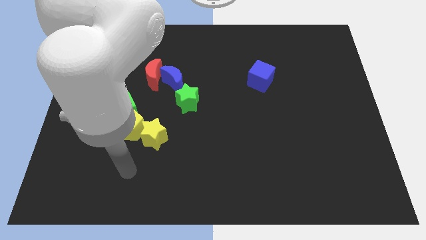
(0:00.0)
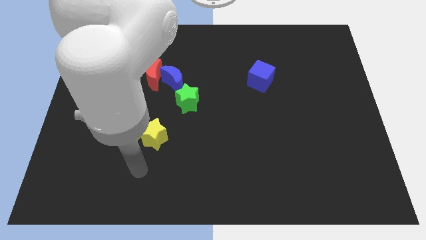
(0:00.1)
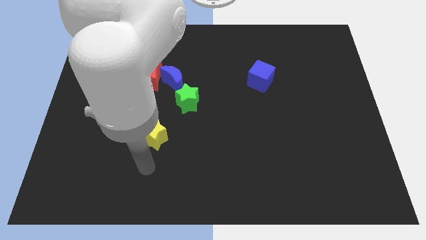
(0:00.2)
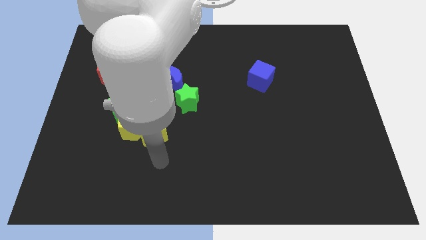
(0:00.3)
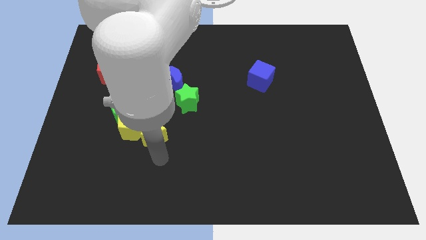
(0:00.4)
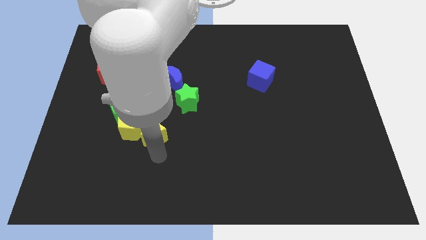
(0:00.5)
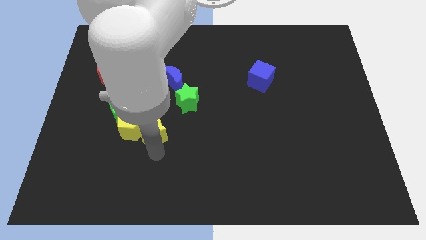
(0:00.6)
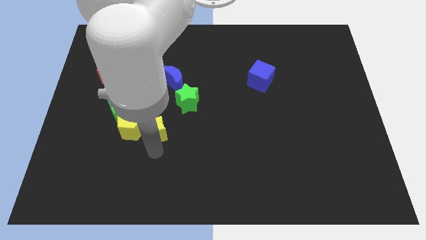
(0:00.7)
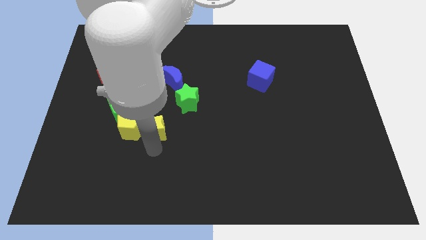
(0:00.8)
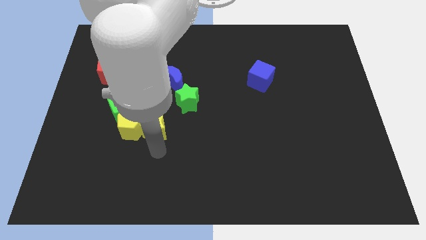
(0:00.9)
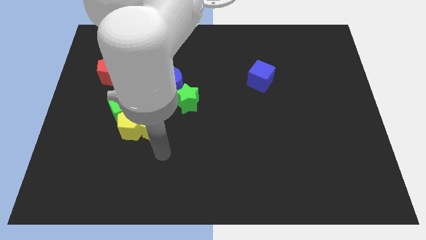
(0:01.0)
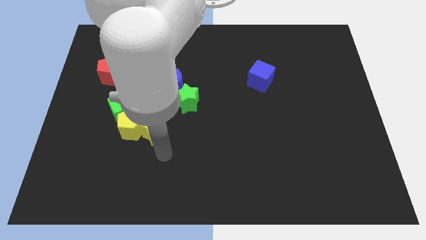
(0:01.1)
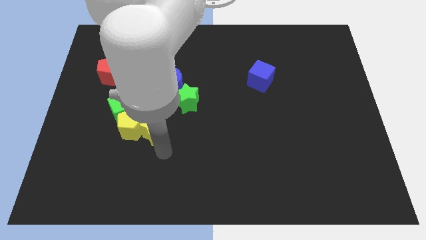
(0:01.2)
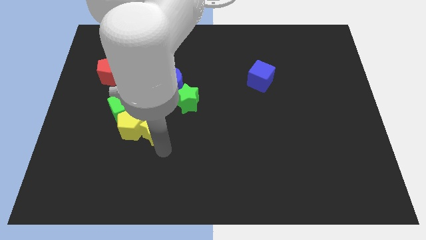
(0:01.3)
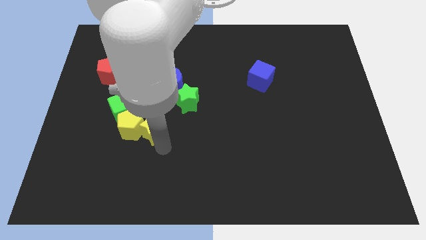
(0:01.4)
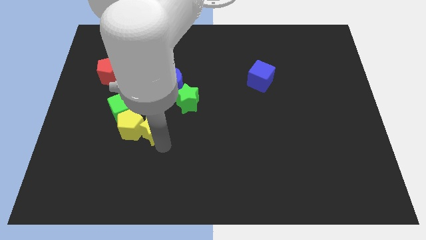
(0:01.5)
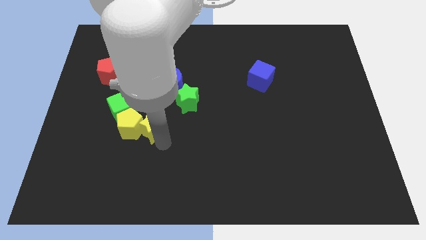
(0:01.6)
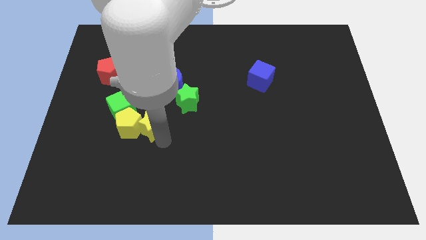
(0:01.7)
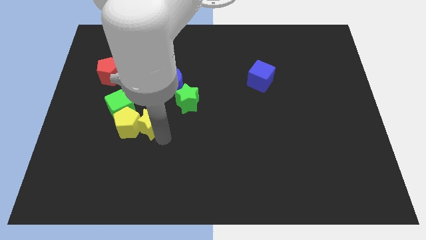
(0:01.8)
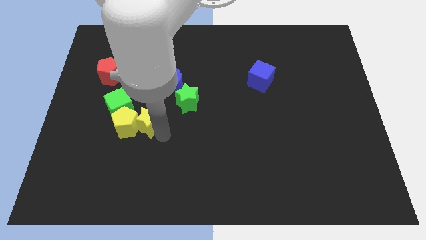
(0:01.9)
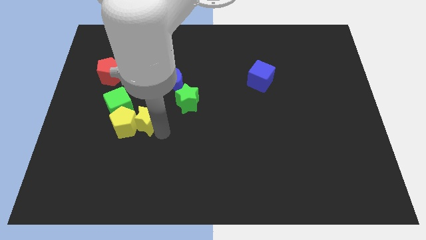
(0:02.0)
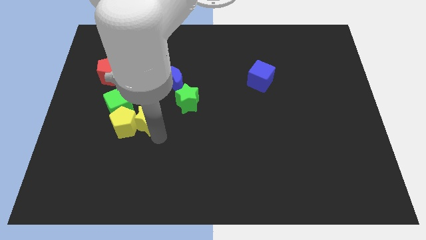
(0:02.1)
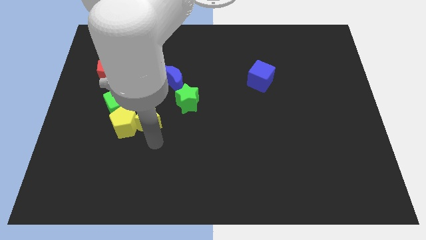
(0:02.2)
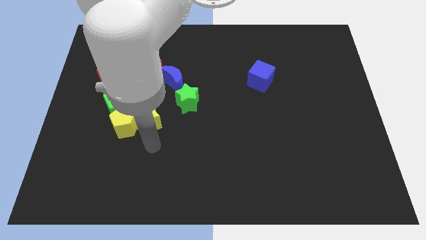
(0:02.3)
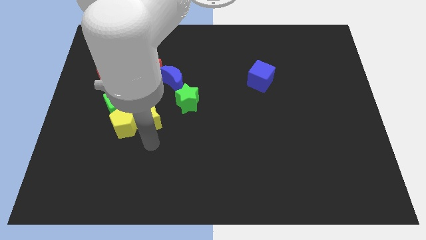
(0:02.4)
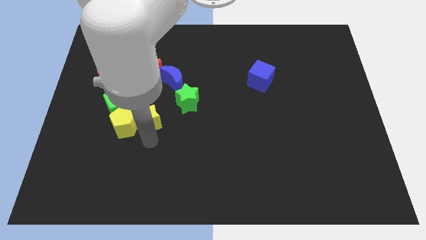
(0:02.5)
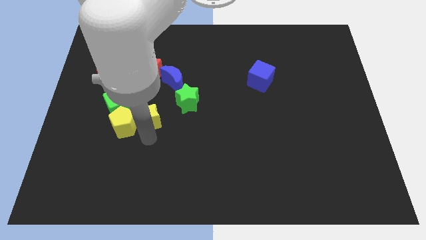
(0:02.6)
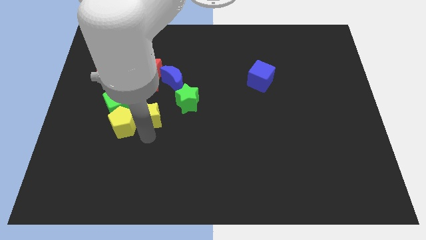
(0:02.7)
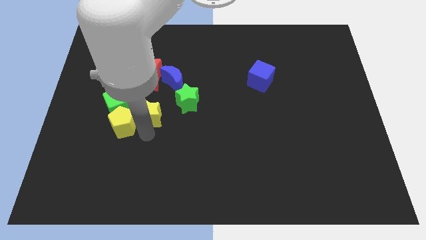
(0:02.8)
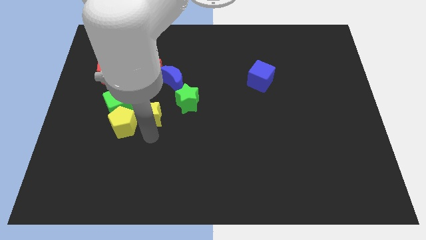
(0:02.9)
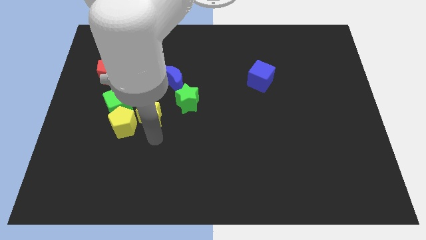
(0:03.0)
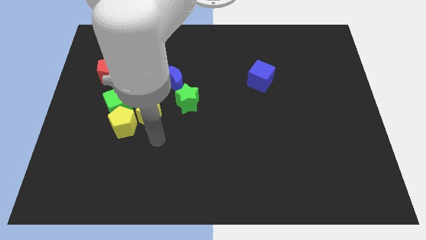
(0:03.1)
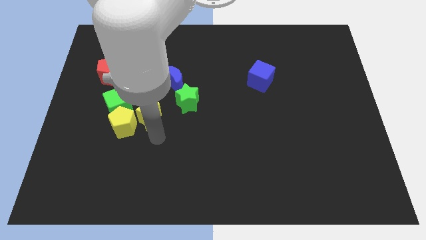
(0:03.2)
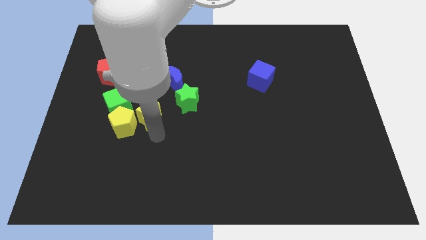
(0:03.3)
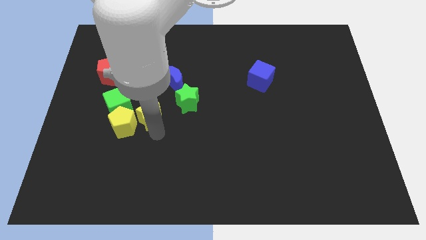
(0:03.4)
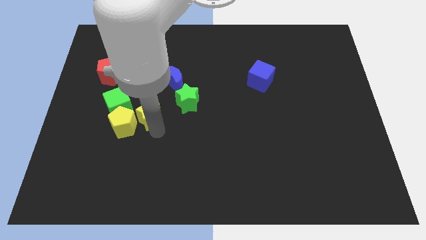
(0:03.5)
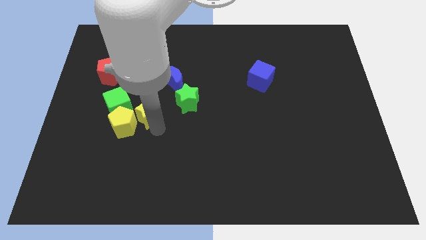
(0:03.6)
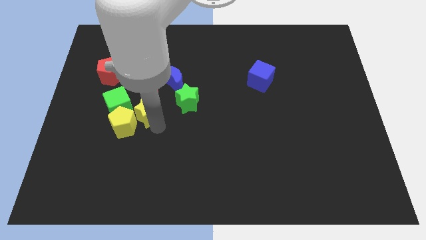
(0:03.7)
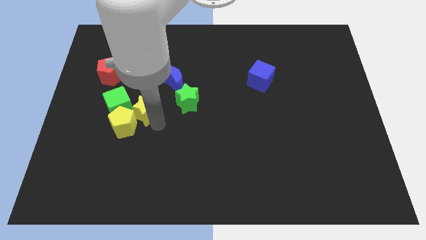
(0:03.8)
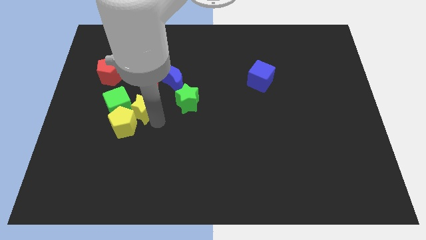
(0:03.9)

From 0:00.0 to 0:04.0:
slide the yellow star up and then left somewhat

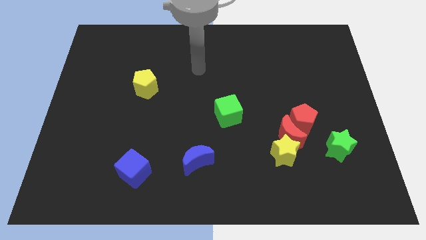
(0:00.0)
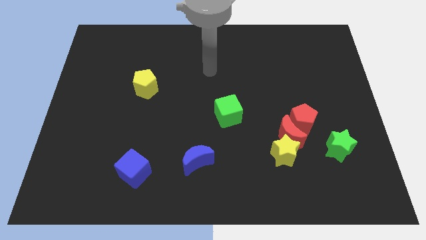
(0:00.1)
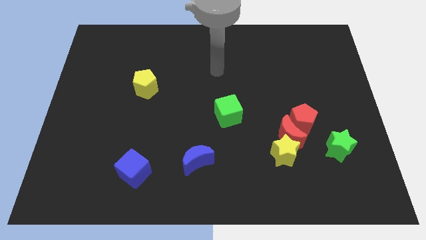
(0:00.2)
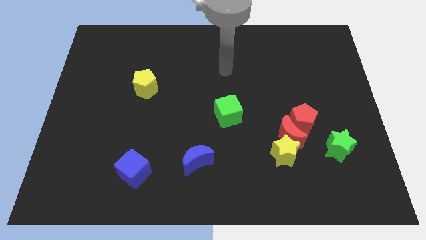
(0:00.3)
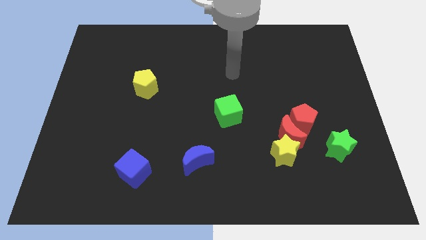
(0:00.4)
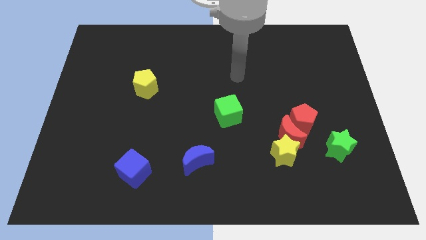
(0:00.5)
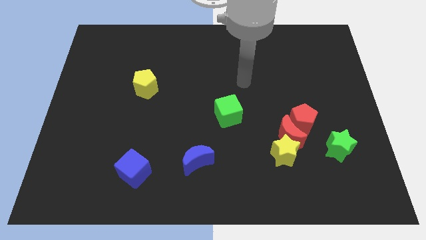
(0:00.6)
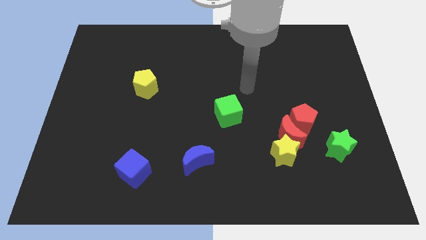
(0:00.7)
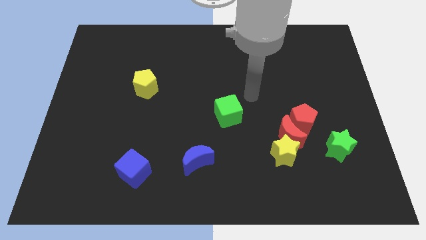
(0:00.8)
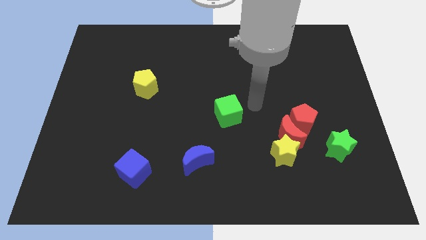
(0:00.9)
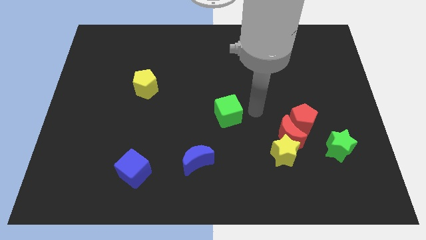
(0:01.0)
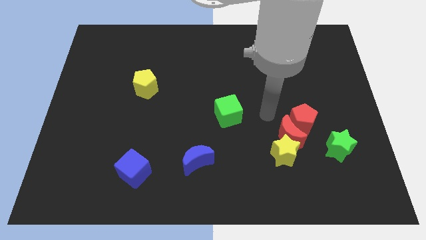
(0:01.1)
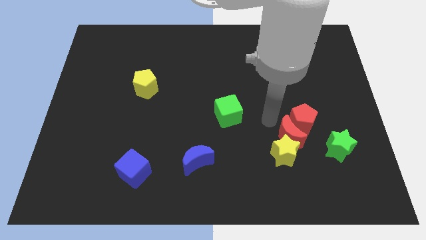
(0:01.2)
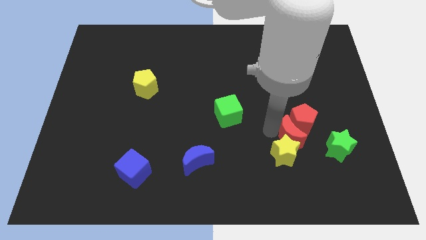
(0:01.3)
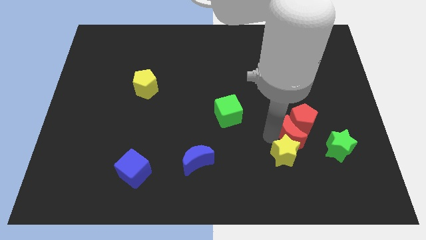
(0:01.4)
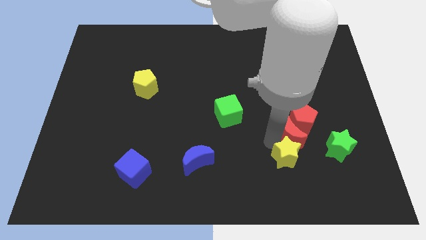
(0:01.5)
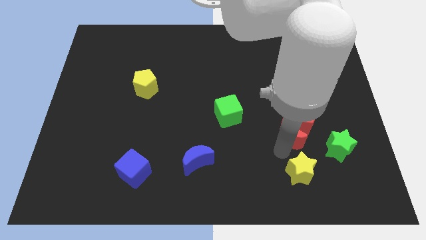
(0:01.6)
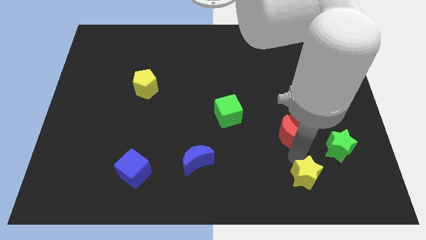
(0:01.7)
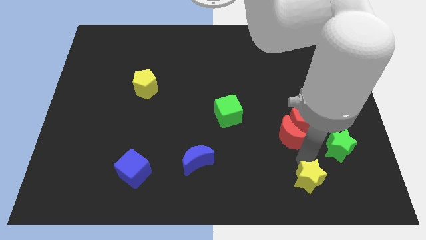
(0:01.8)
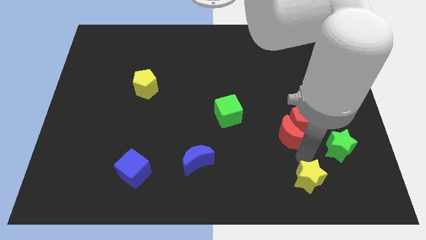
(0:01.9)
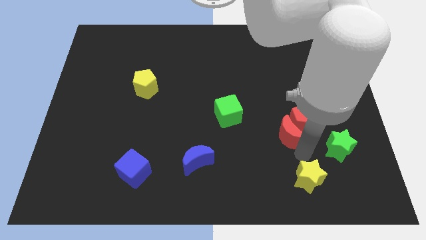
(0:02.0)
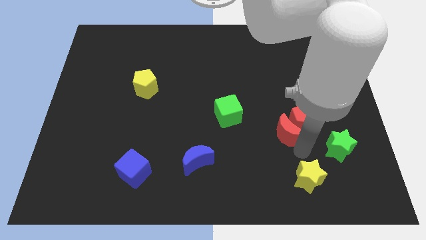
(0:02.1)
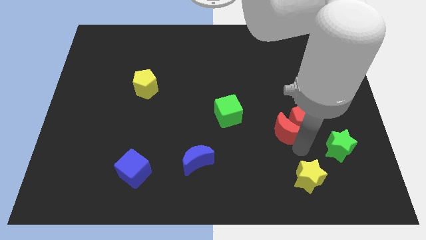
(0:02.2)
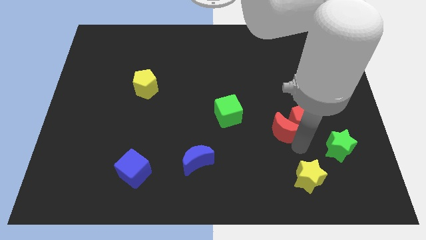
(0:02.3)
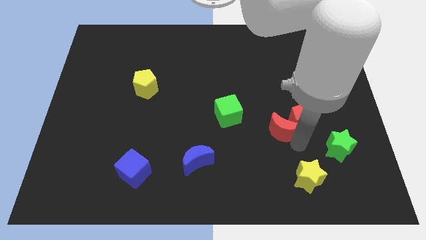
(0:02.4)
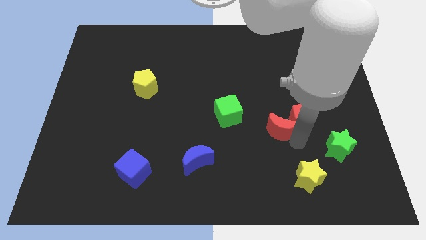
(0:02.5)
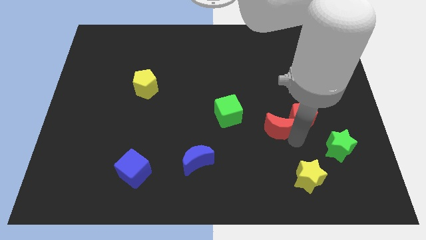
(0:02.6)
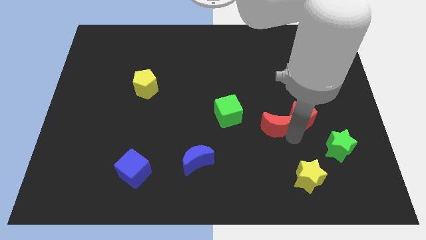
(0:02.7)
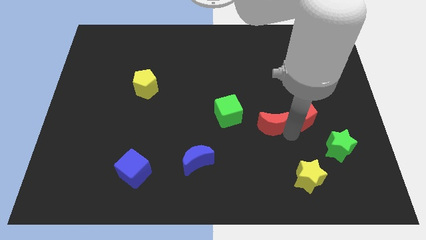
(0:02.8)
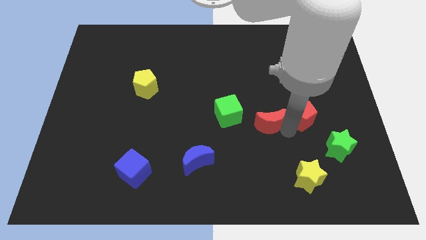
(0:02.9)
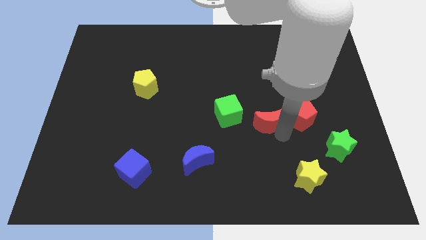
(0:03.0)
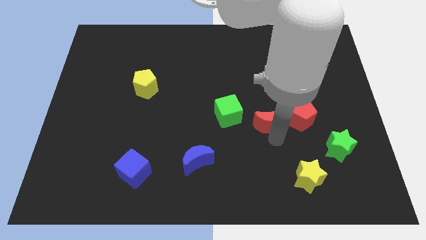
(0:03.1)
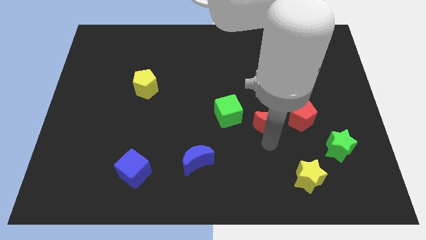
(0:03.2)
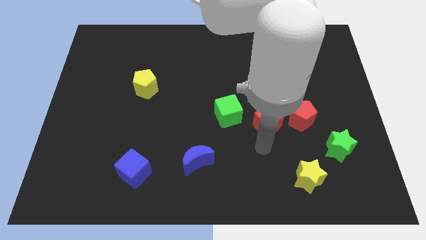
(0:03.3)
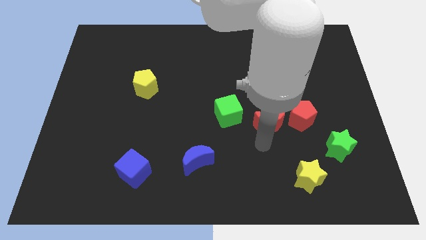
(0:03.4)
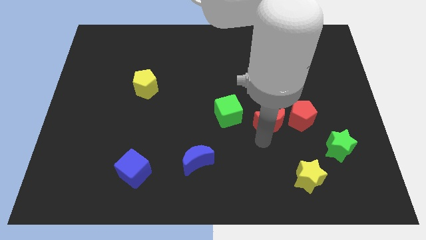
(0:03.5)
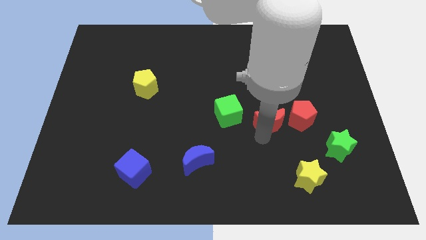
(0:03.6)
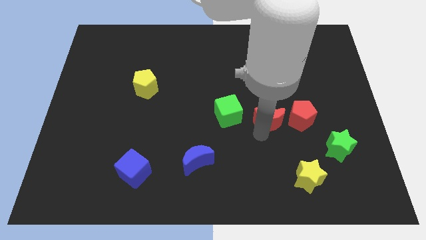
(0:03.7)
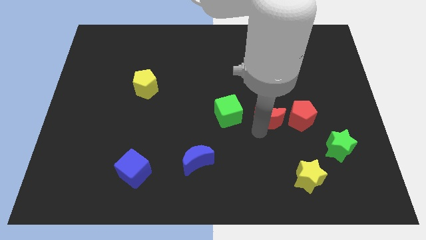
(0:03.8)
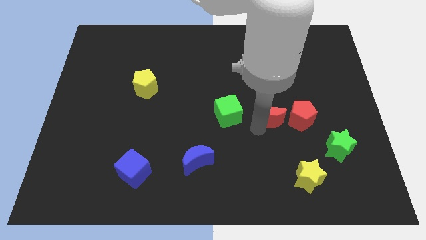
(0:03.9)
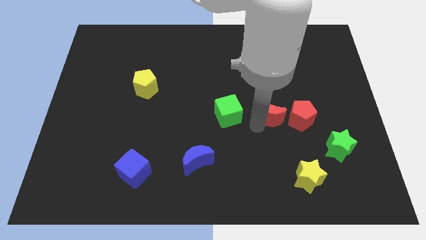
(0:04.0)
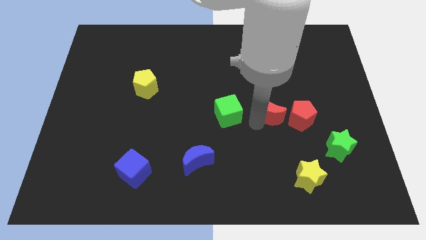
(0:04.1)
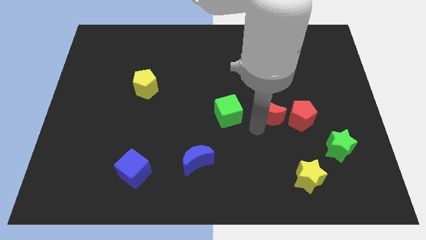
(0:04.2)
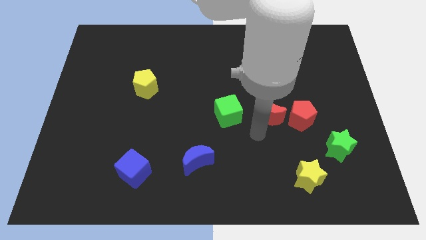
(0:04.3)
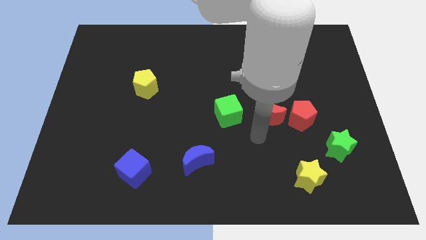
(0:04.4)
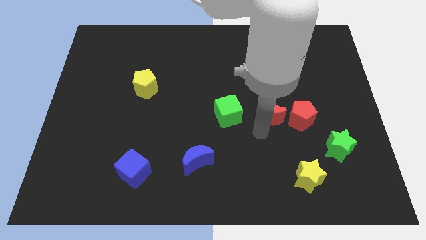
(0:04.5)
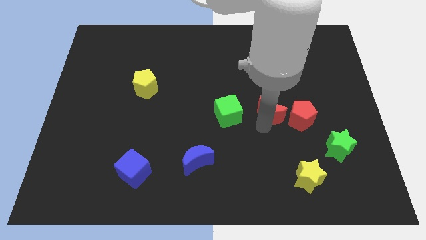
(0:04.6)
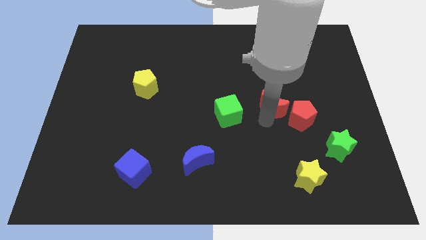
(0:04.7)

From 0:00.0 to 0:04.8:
slide the red moon up somewhat
